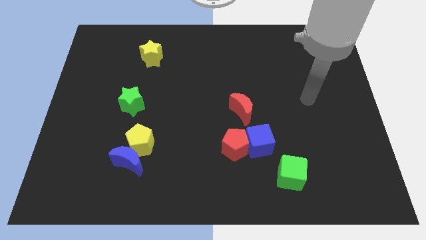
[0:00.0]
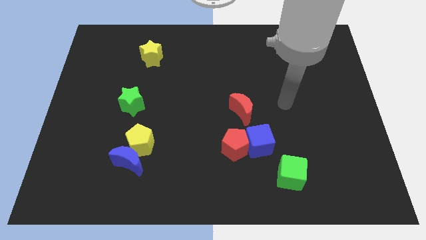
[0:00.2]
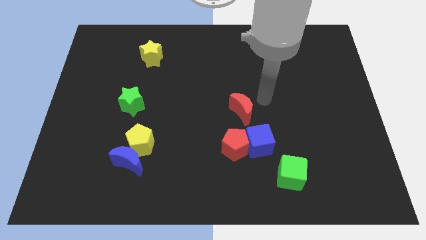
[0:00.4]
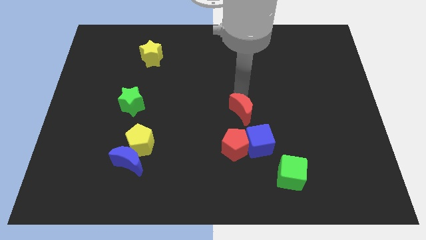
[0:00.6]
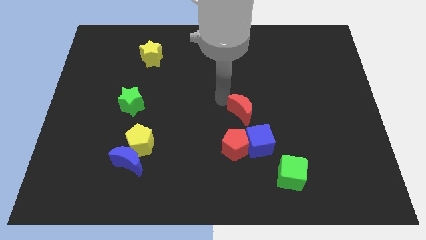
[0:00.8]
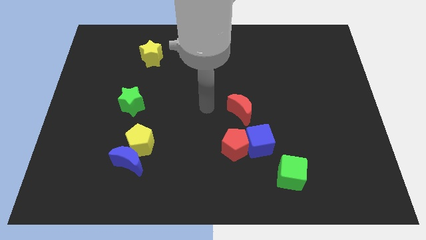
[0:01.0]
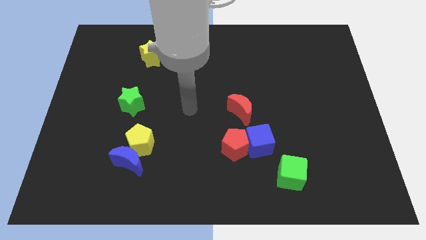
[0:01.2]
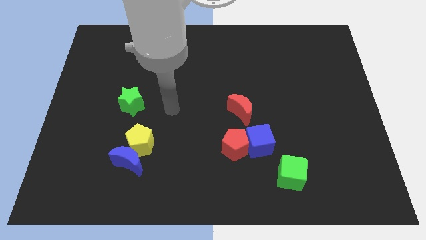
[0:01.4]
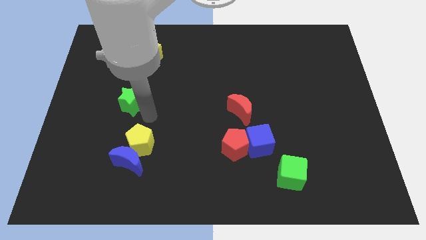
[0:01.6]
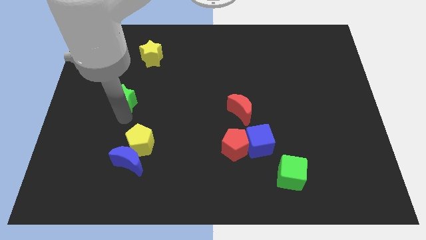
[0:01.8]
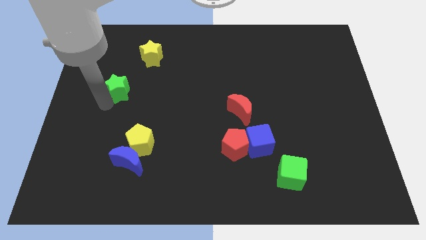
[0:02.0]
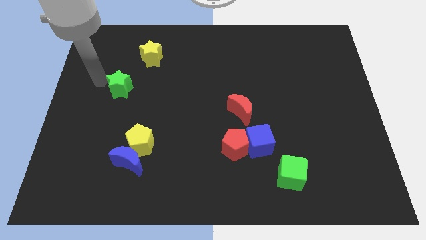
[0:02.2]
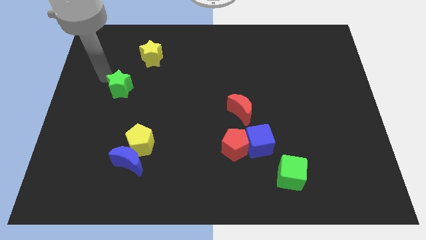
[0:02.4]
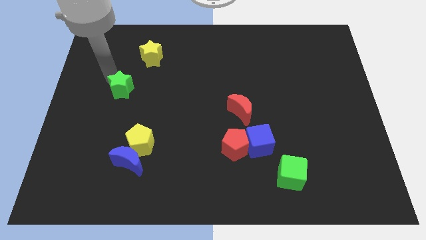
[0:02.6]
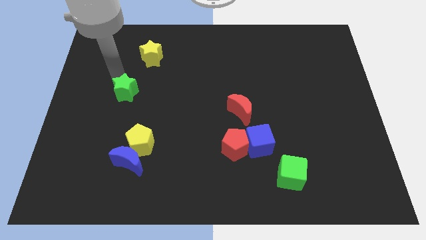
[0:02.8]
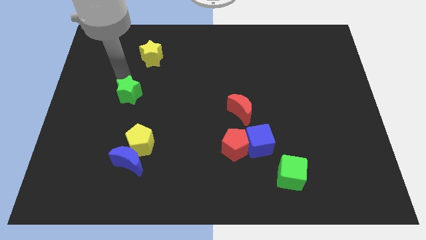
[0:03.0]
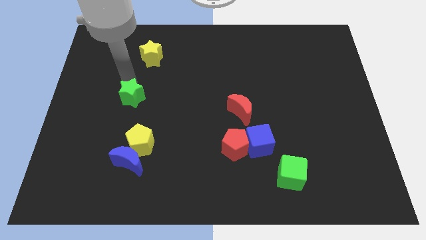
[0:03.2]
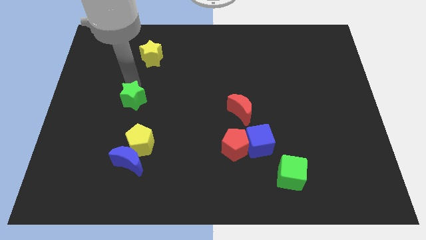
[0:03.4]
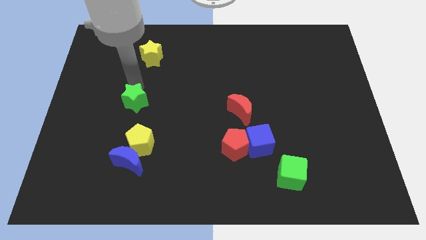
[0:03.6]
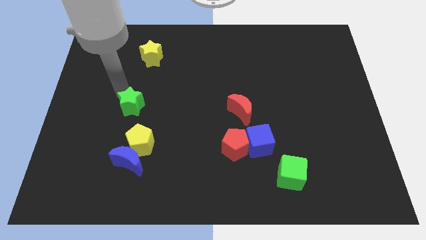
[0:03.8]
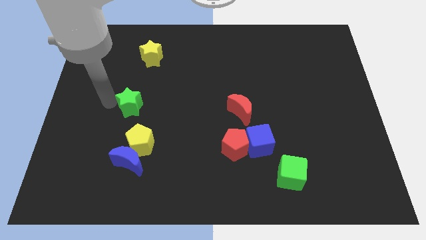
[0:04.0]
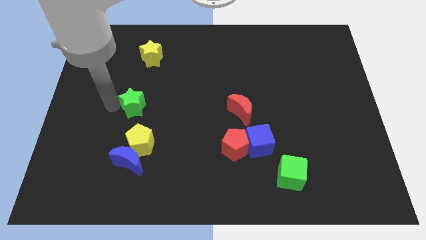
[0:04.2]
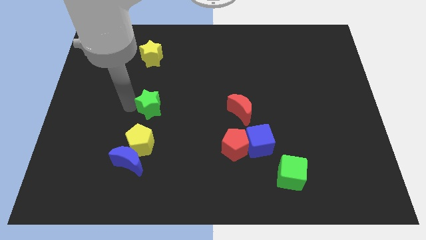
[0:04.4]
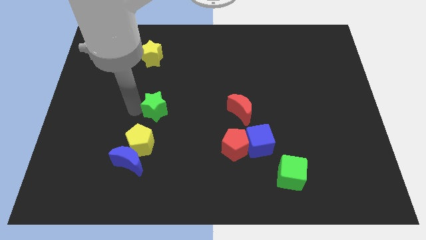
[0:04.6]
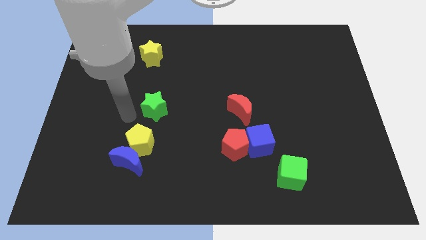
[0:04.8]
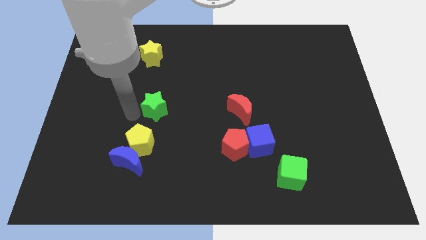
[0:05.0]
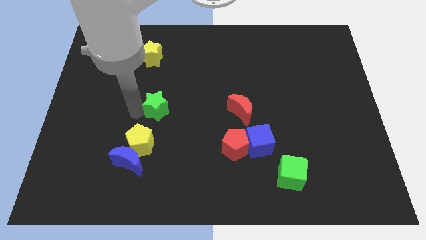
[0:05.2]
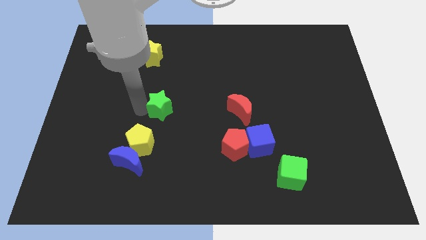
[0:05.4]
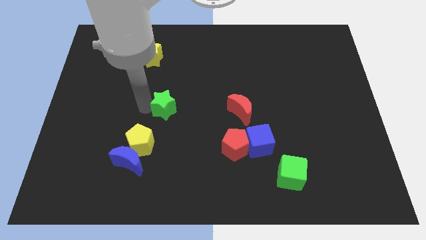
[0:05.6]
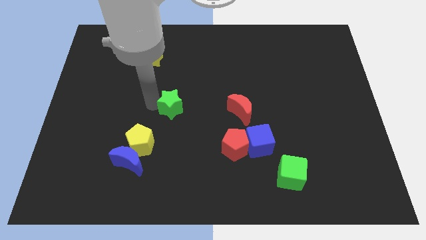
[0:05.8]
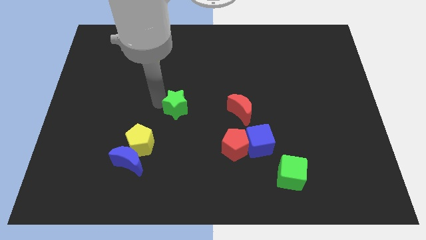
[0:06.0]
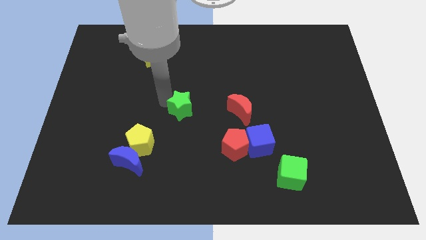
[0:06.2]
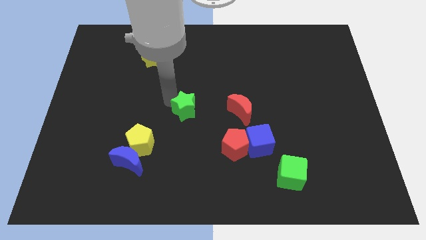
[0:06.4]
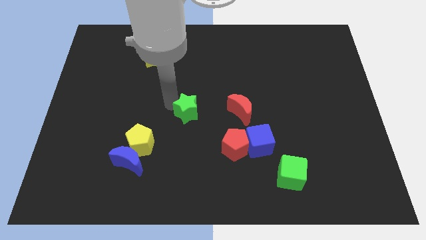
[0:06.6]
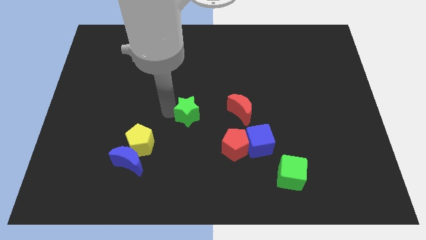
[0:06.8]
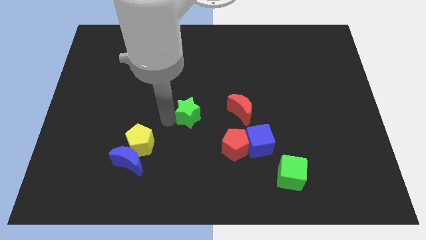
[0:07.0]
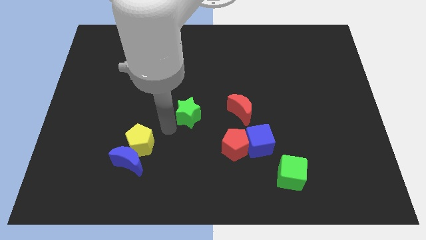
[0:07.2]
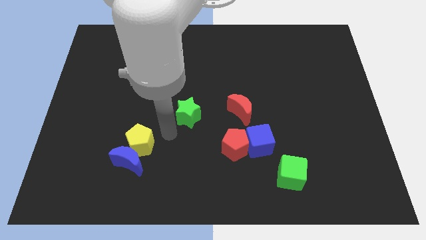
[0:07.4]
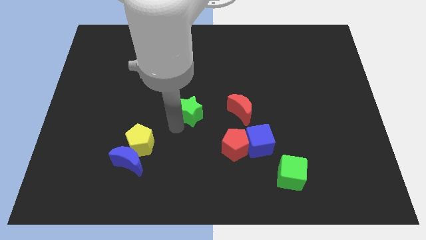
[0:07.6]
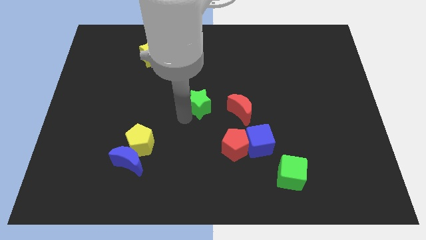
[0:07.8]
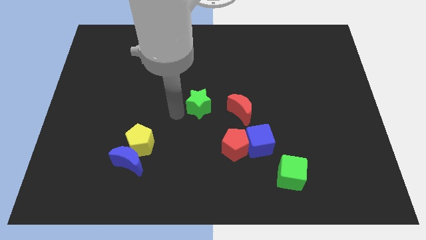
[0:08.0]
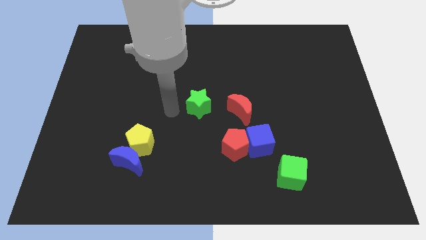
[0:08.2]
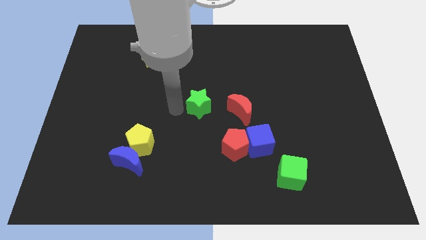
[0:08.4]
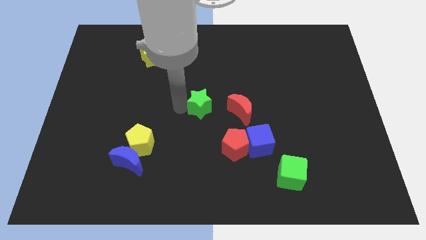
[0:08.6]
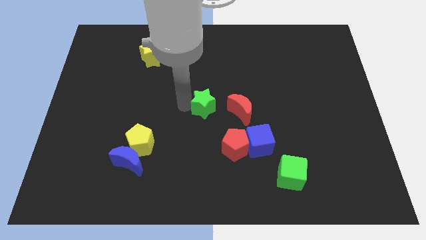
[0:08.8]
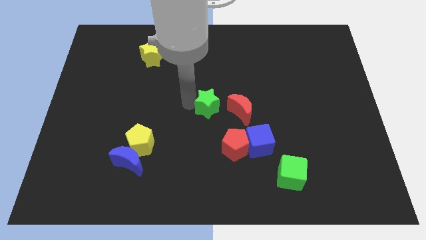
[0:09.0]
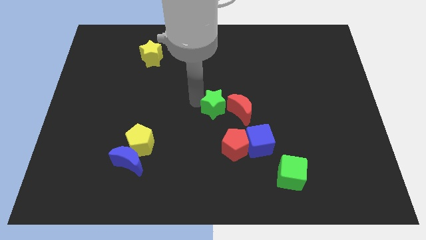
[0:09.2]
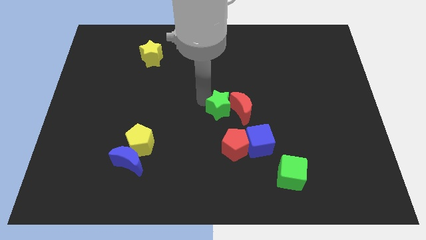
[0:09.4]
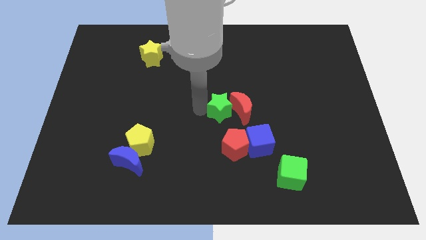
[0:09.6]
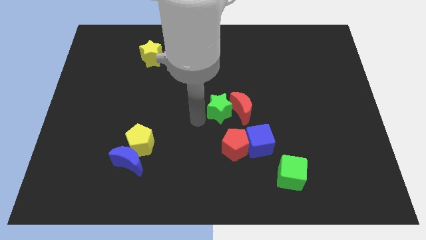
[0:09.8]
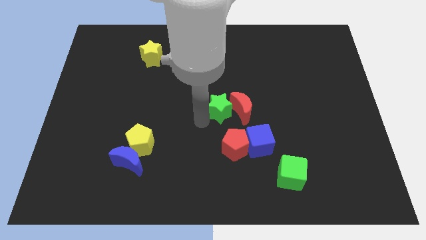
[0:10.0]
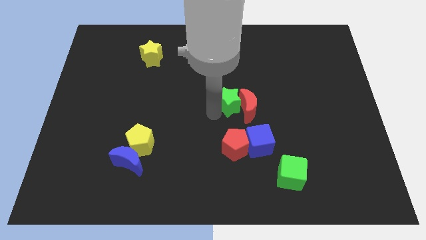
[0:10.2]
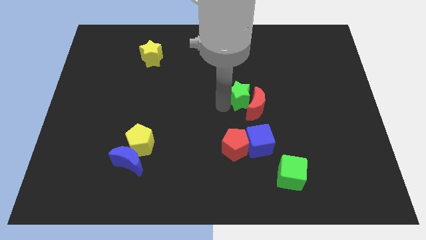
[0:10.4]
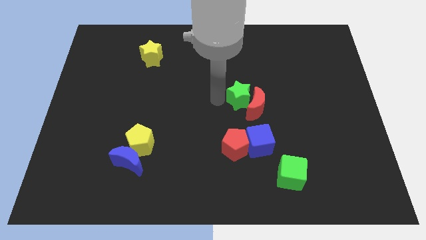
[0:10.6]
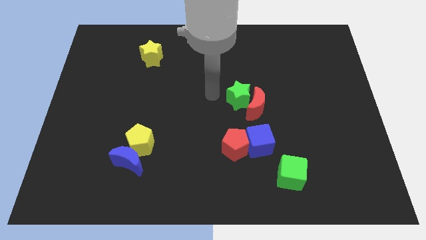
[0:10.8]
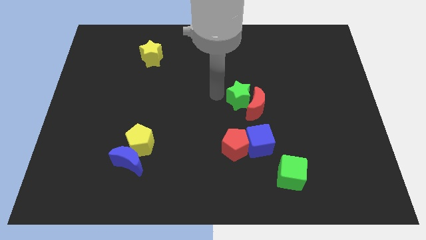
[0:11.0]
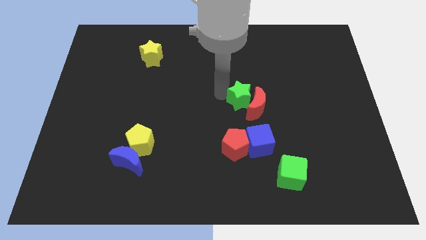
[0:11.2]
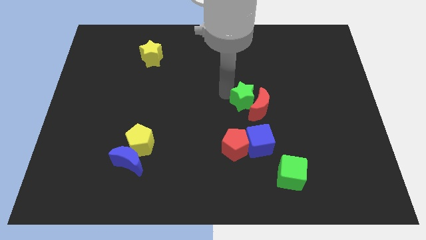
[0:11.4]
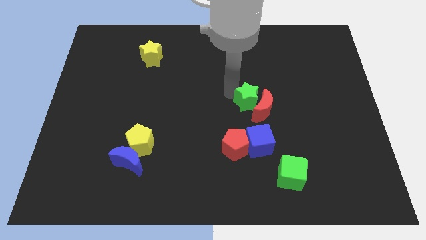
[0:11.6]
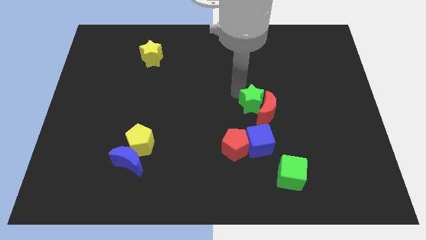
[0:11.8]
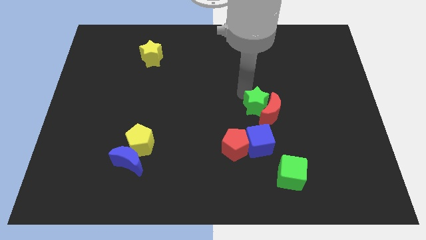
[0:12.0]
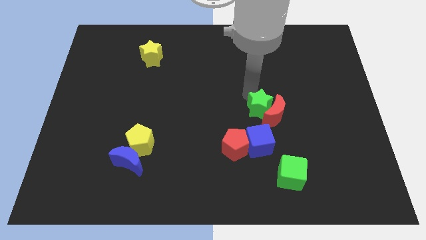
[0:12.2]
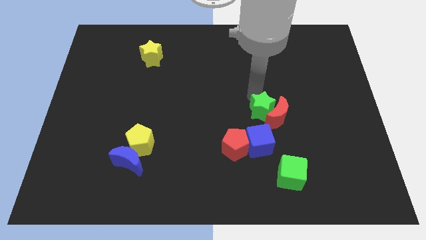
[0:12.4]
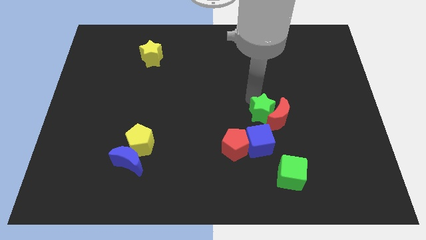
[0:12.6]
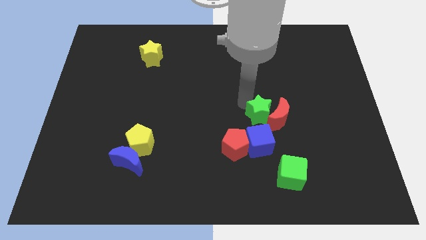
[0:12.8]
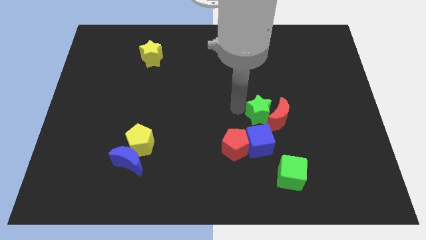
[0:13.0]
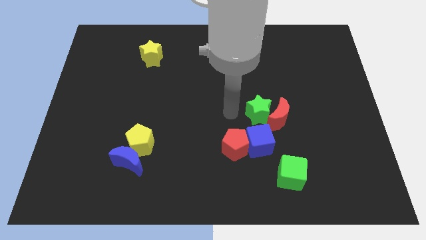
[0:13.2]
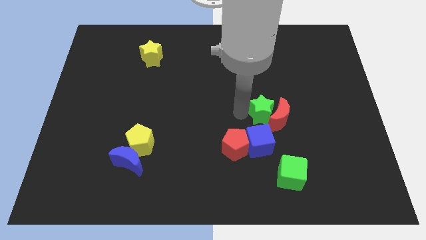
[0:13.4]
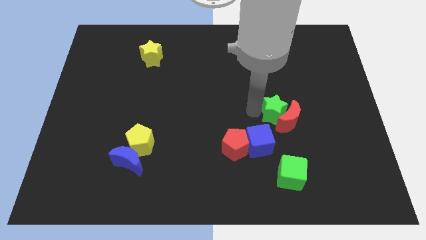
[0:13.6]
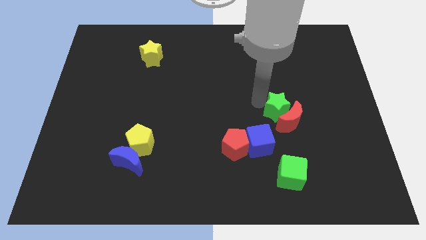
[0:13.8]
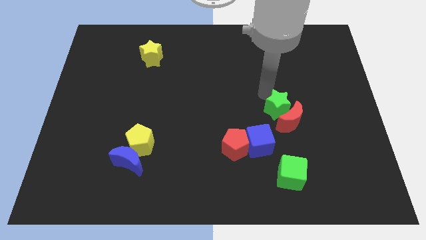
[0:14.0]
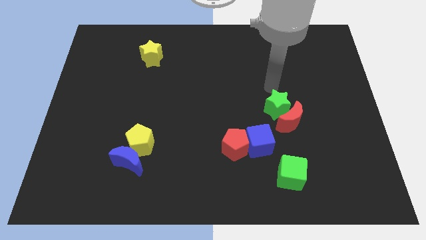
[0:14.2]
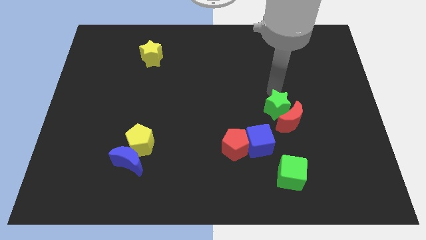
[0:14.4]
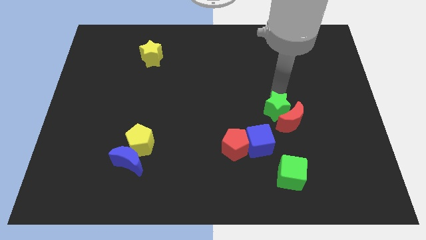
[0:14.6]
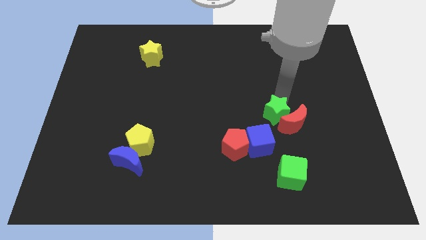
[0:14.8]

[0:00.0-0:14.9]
push the green star to the top side of the green cube
